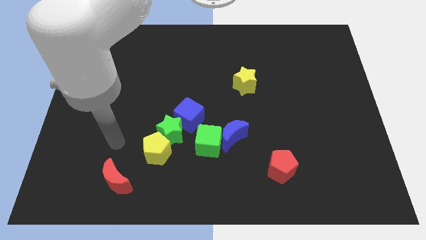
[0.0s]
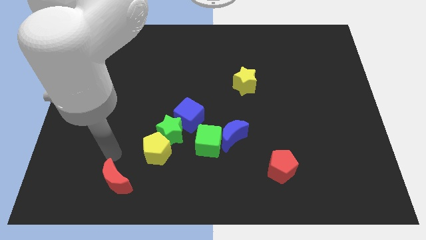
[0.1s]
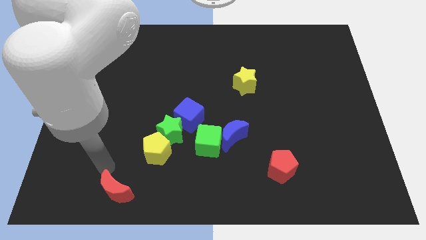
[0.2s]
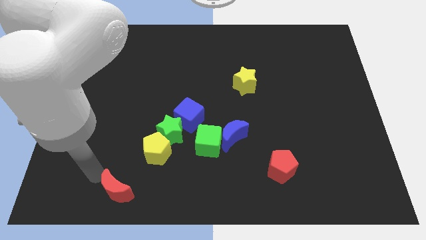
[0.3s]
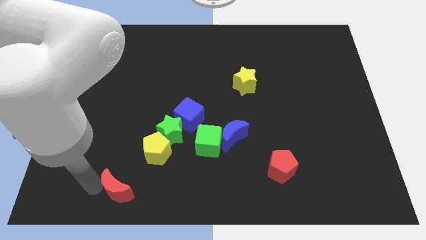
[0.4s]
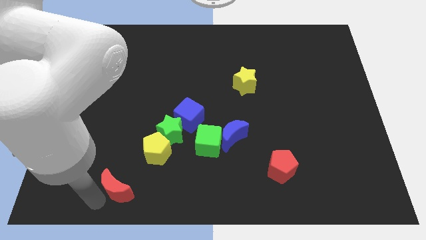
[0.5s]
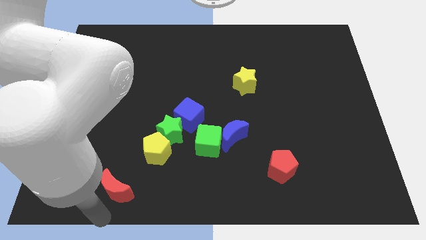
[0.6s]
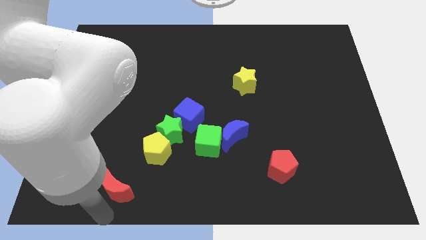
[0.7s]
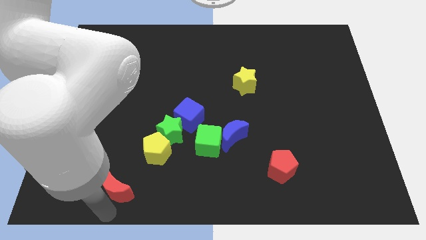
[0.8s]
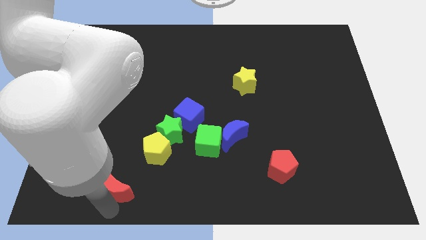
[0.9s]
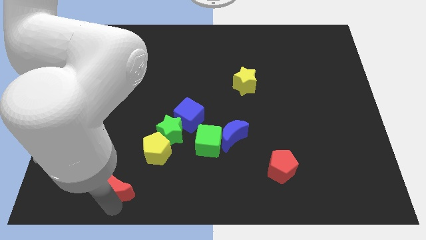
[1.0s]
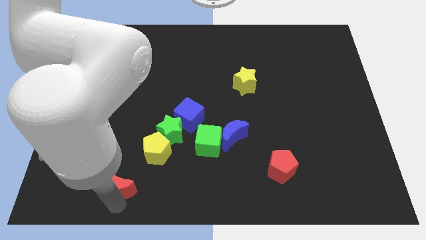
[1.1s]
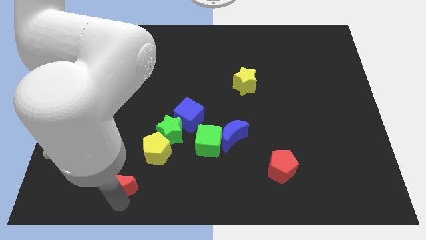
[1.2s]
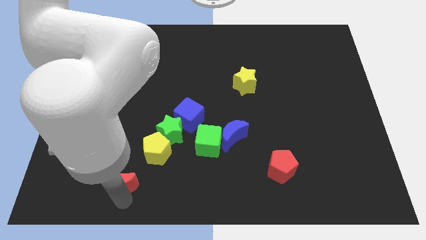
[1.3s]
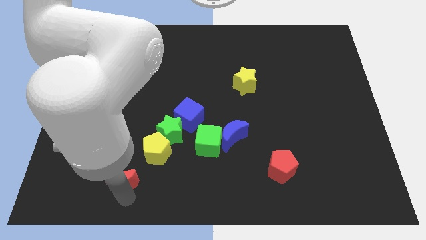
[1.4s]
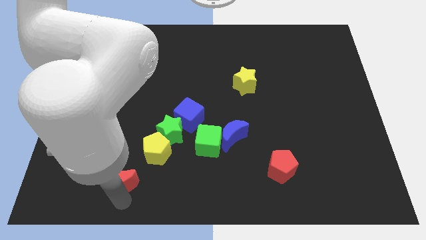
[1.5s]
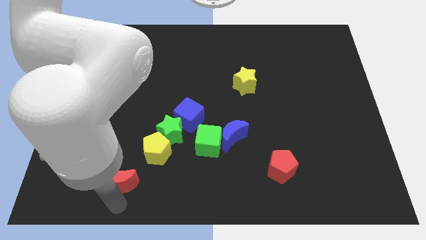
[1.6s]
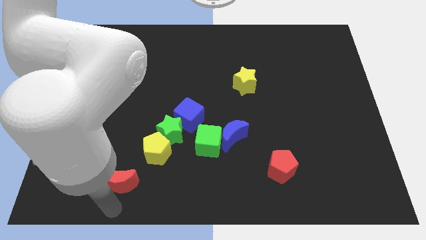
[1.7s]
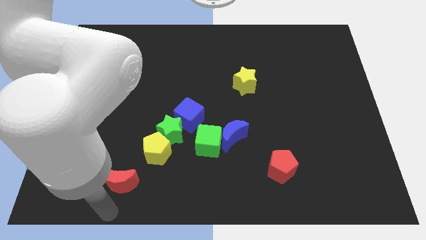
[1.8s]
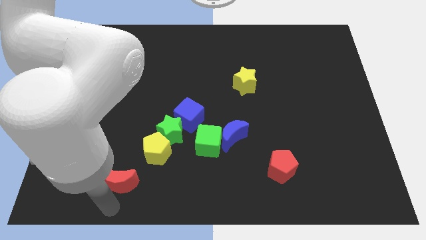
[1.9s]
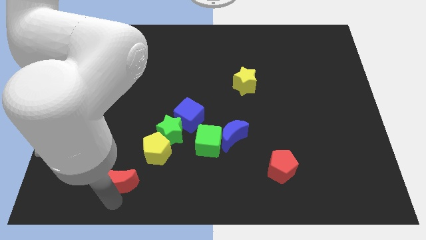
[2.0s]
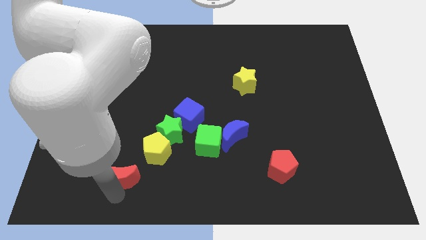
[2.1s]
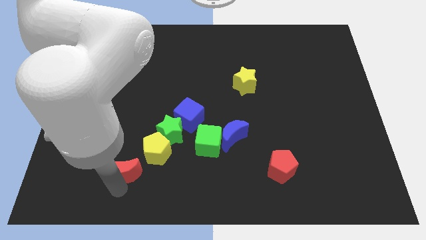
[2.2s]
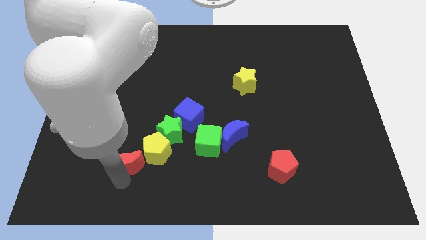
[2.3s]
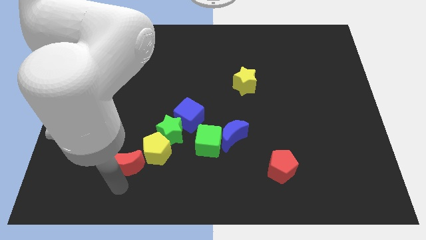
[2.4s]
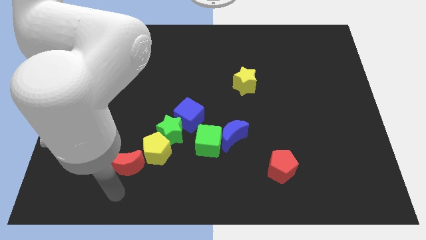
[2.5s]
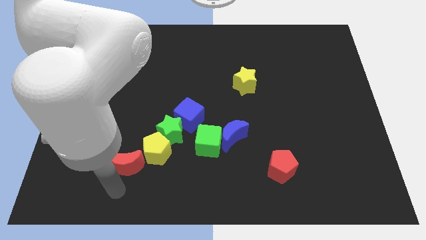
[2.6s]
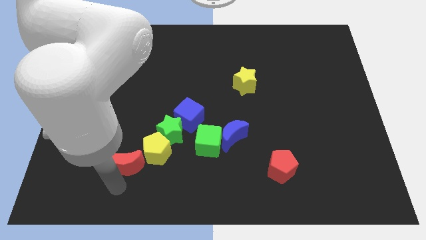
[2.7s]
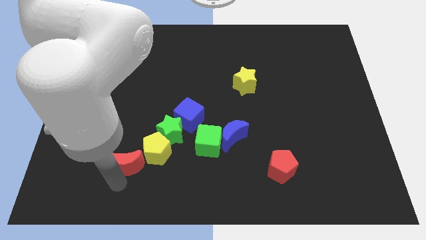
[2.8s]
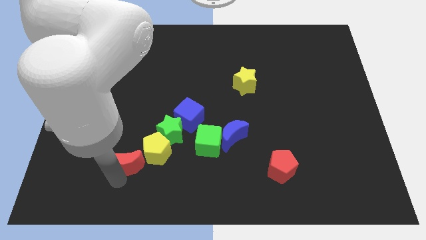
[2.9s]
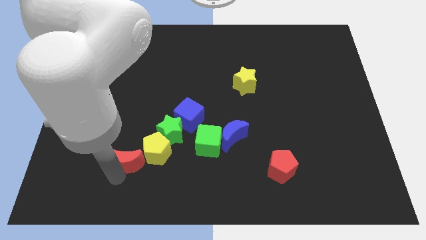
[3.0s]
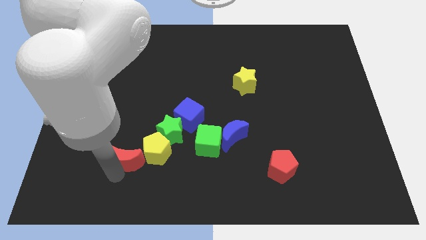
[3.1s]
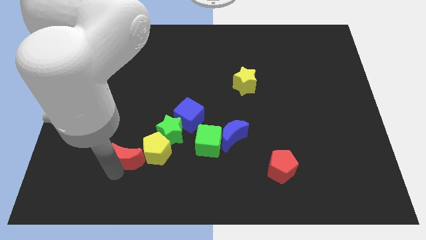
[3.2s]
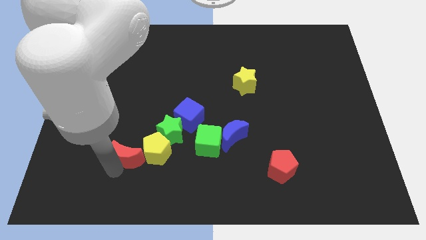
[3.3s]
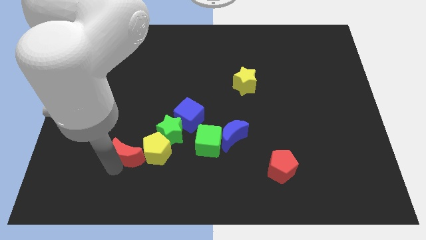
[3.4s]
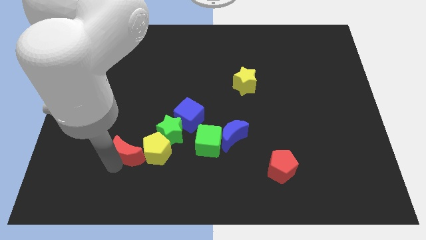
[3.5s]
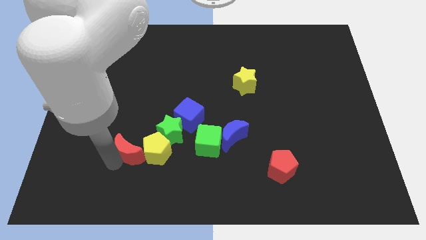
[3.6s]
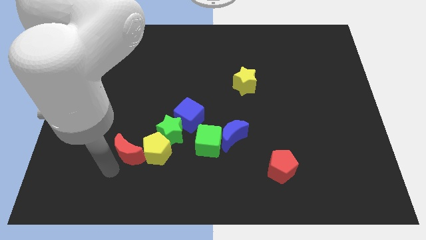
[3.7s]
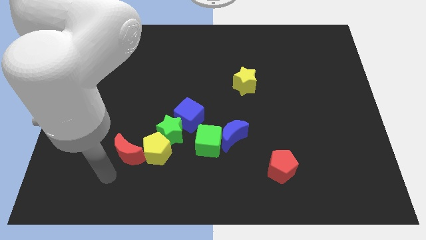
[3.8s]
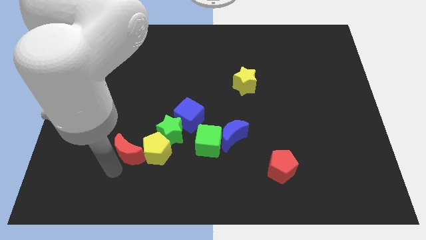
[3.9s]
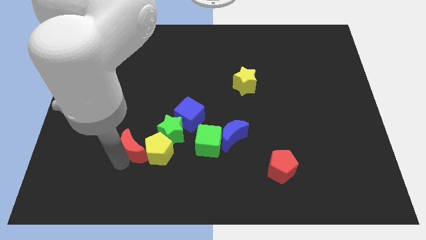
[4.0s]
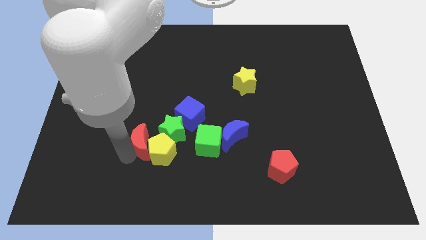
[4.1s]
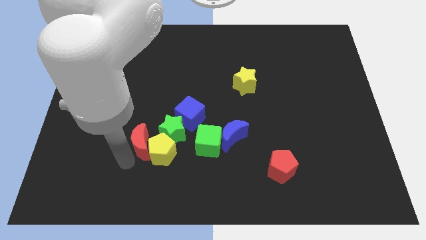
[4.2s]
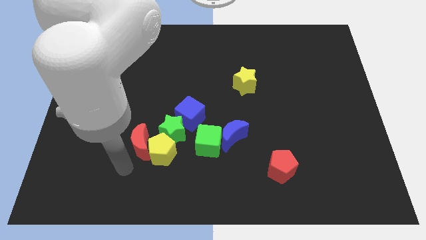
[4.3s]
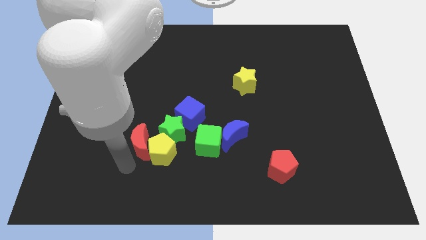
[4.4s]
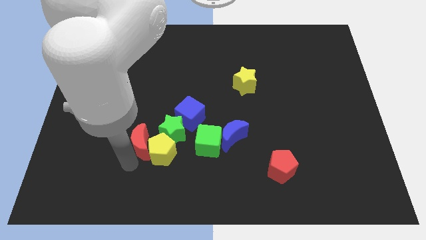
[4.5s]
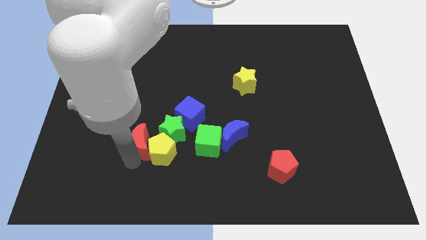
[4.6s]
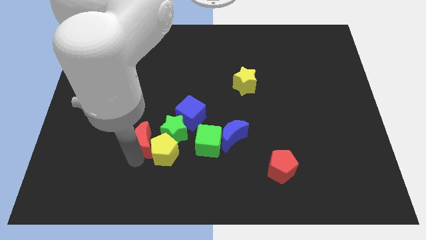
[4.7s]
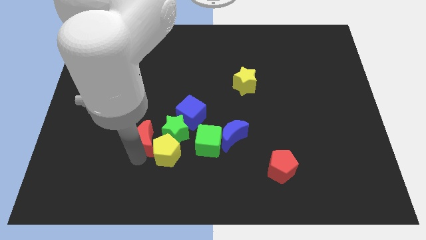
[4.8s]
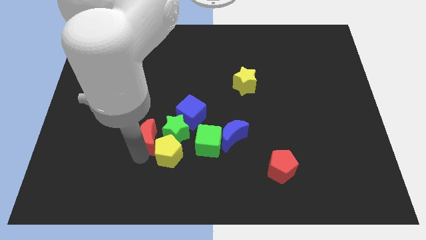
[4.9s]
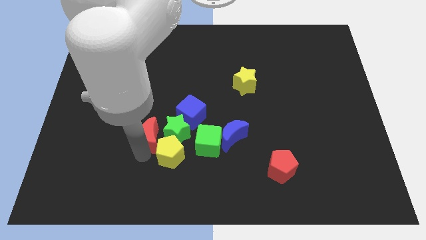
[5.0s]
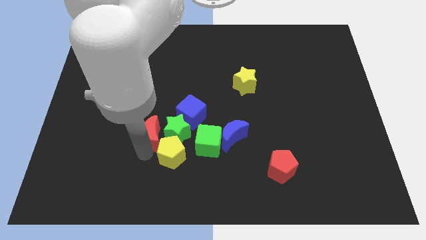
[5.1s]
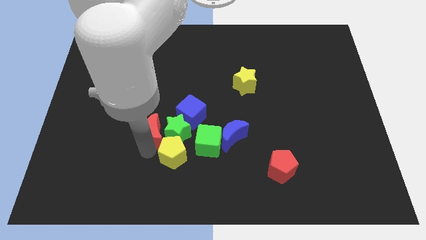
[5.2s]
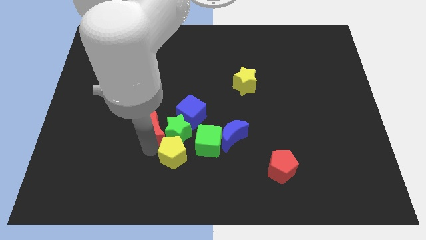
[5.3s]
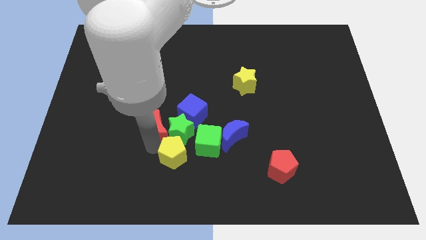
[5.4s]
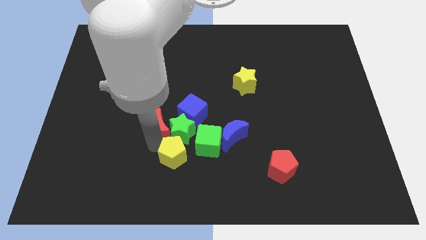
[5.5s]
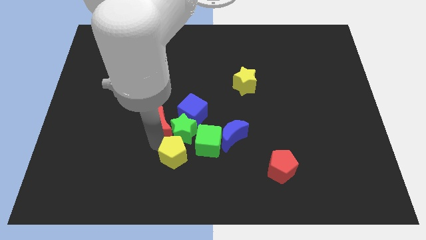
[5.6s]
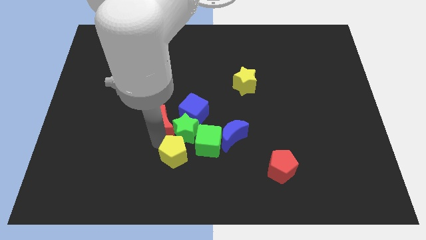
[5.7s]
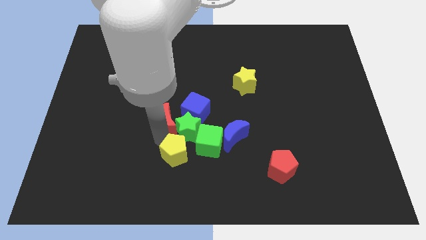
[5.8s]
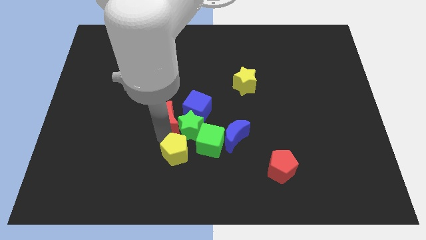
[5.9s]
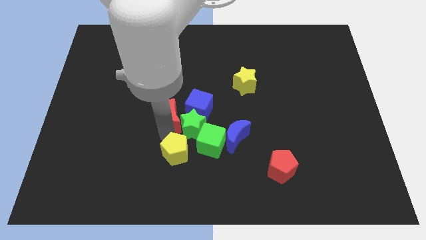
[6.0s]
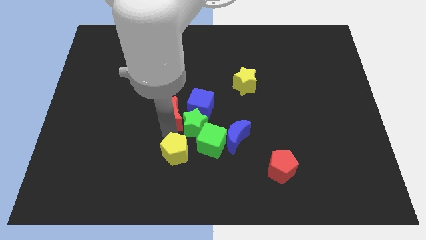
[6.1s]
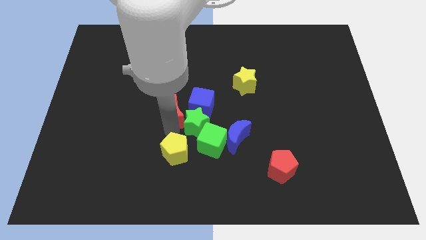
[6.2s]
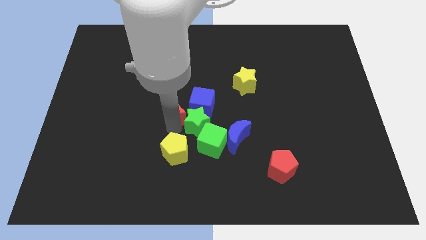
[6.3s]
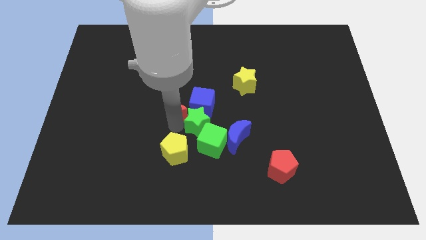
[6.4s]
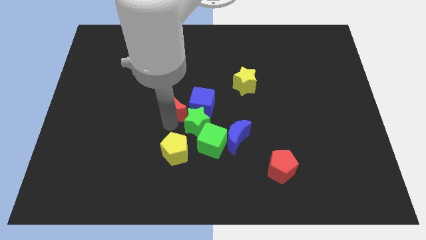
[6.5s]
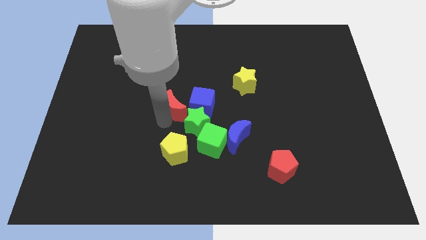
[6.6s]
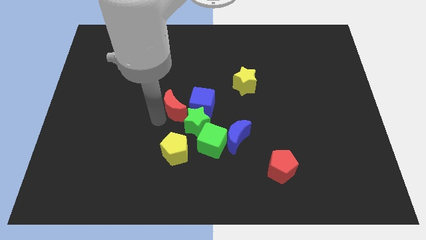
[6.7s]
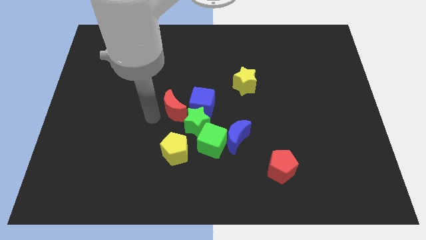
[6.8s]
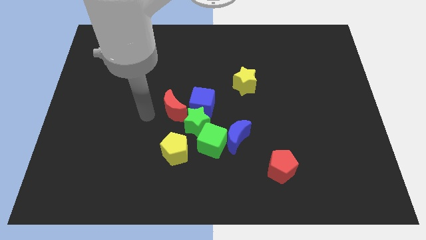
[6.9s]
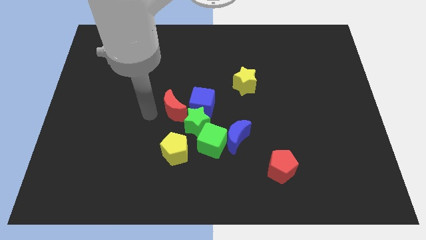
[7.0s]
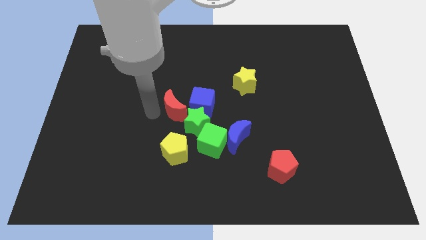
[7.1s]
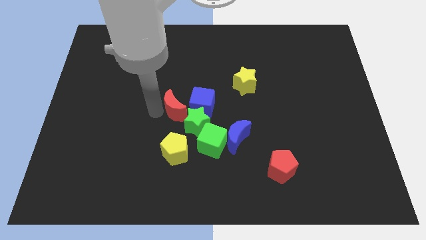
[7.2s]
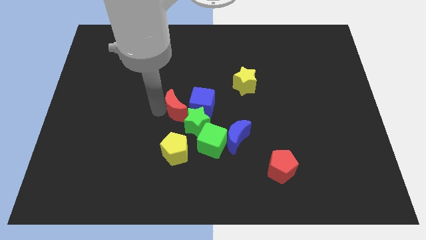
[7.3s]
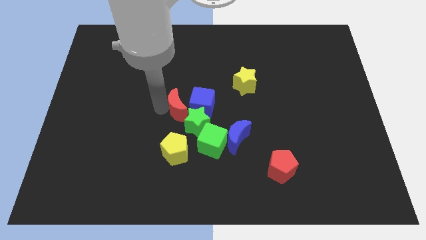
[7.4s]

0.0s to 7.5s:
move the red moon close to the blue cube

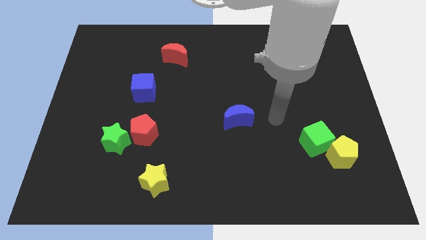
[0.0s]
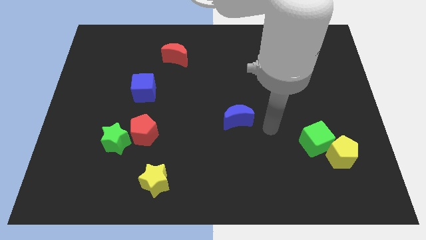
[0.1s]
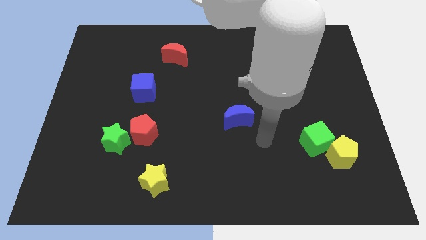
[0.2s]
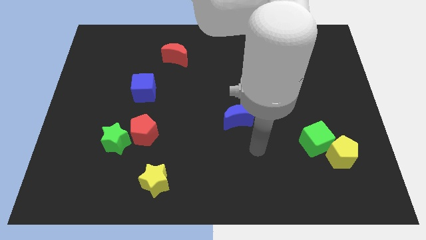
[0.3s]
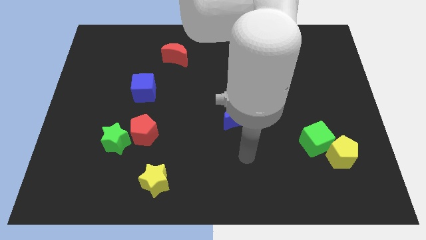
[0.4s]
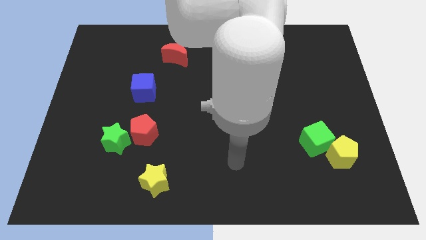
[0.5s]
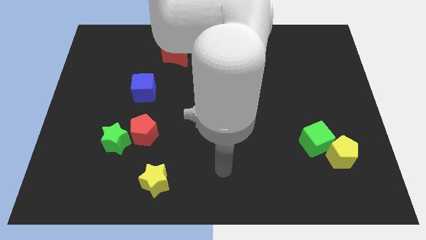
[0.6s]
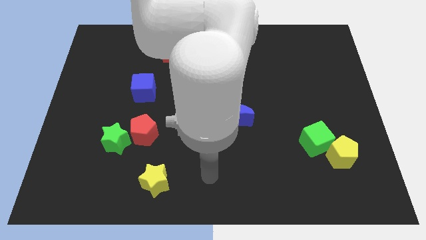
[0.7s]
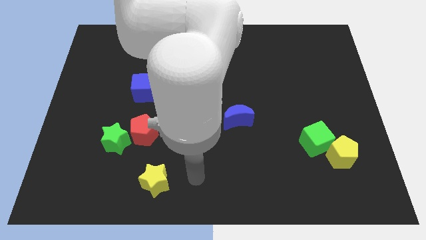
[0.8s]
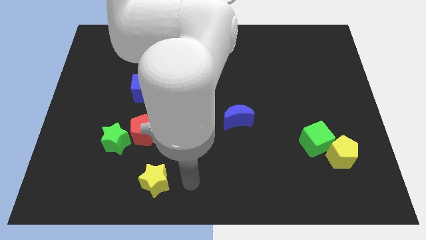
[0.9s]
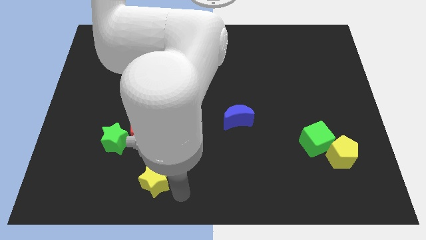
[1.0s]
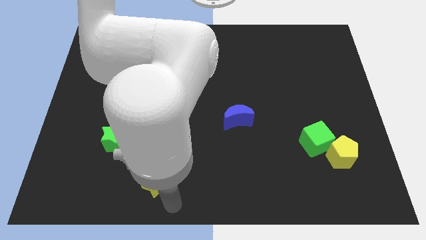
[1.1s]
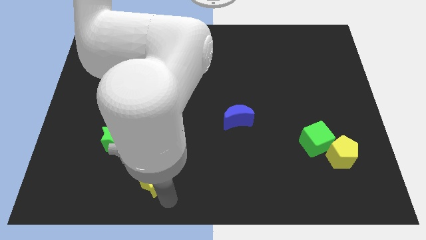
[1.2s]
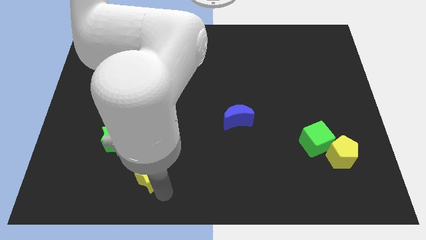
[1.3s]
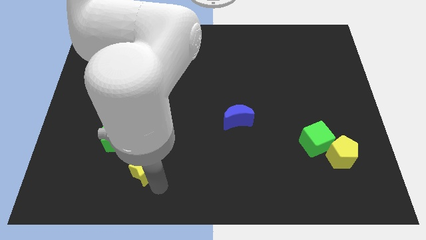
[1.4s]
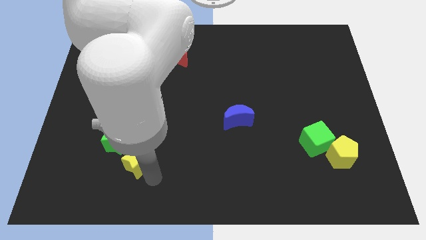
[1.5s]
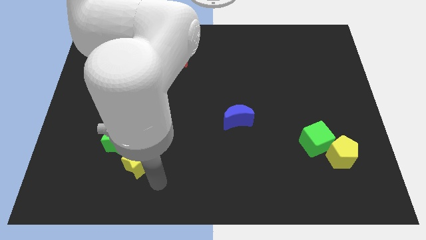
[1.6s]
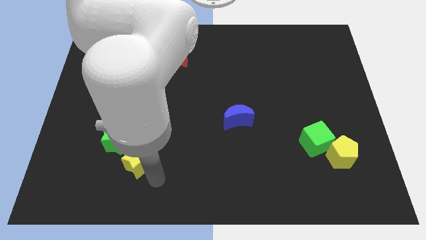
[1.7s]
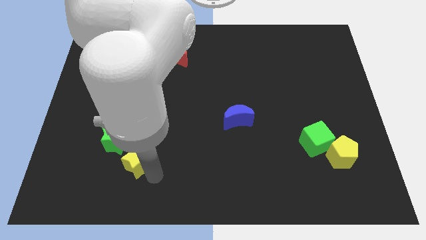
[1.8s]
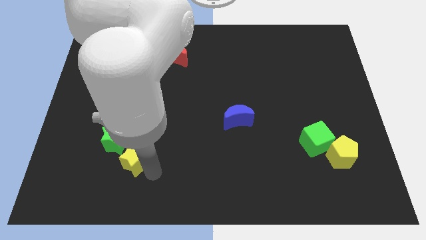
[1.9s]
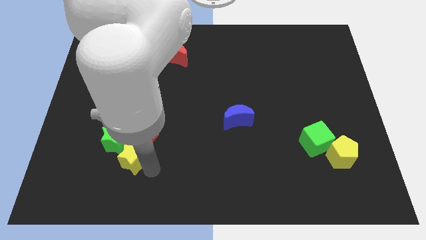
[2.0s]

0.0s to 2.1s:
move the yellow star towards the green star
